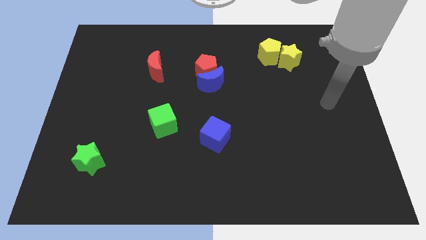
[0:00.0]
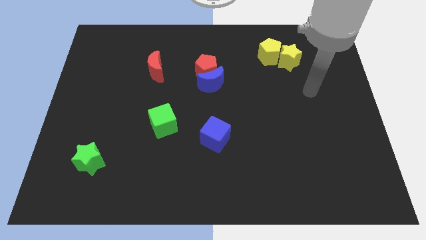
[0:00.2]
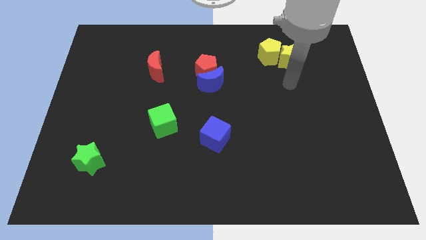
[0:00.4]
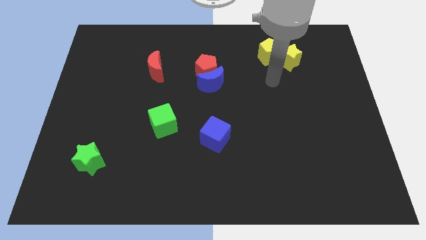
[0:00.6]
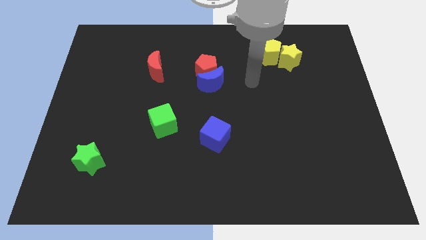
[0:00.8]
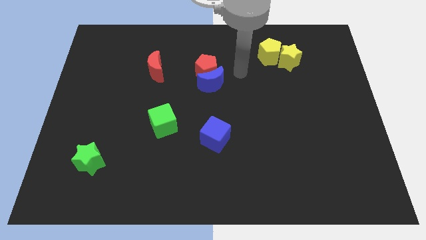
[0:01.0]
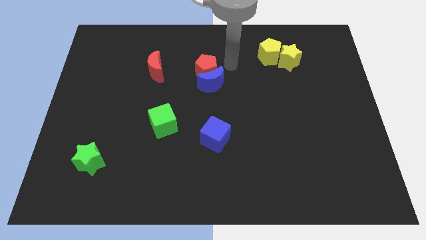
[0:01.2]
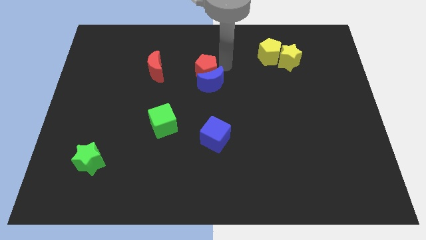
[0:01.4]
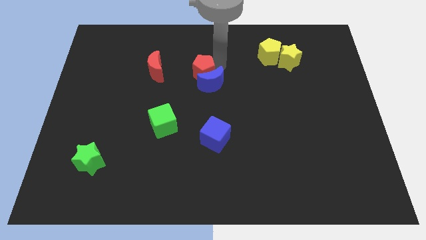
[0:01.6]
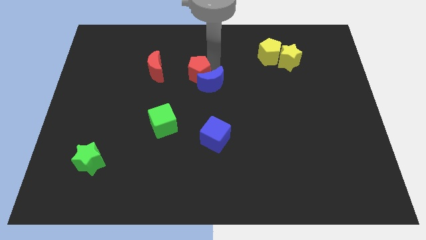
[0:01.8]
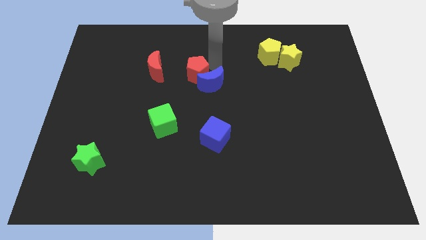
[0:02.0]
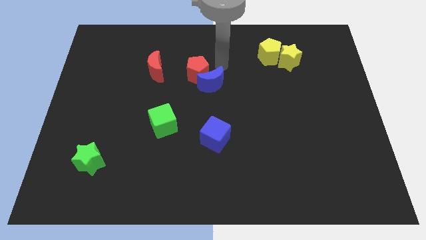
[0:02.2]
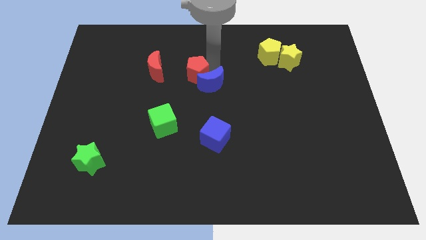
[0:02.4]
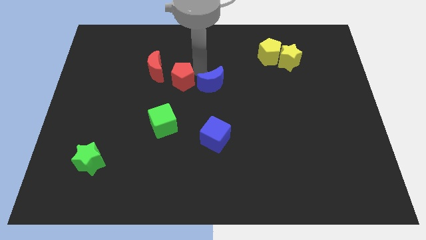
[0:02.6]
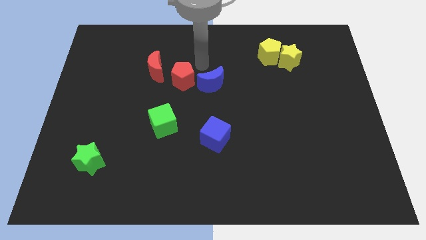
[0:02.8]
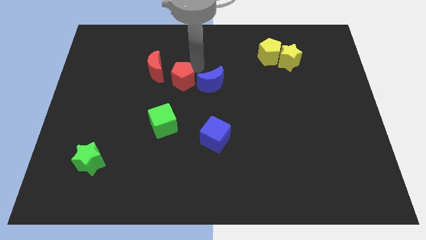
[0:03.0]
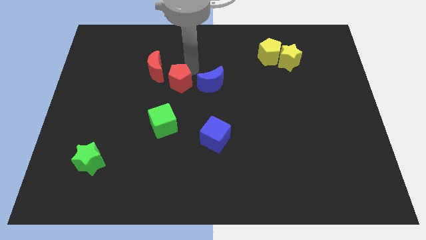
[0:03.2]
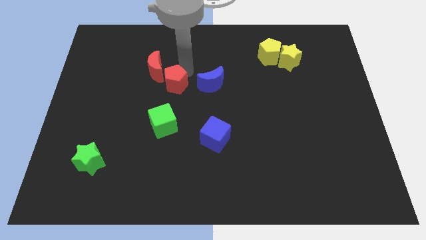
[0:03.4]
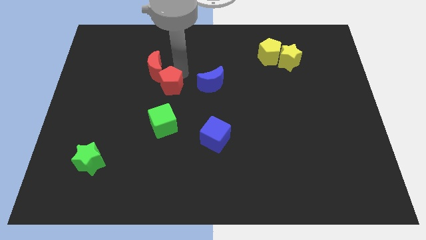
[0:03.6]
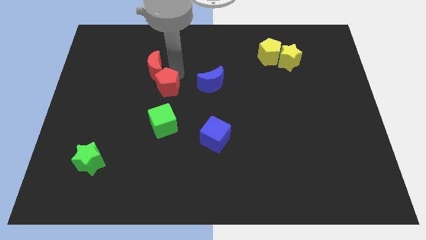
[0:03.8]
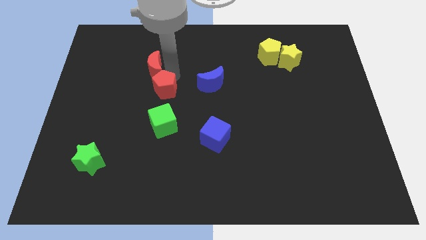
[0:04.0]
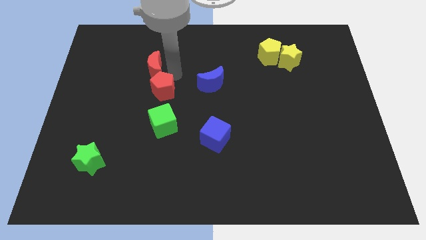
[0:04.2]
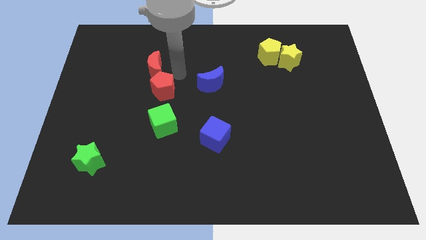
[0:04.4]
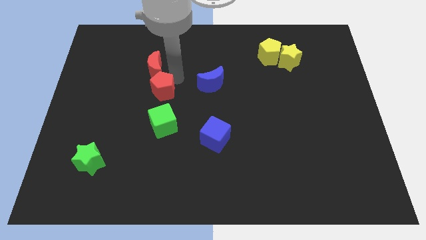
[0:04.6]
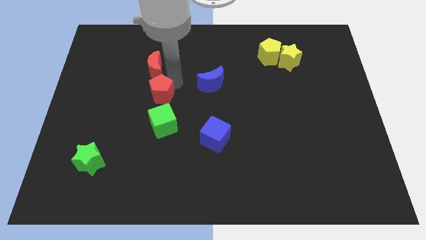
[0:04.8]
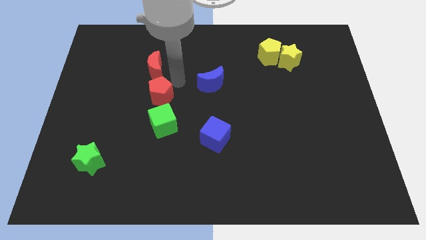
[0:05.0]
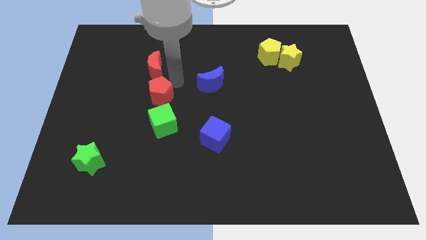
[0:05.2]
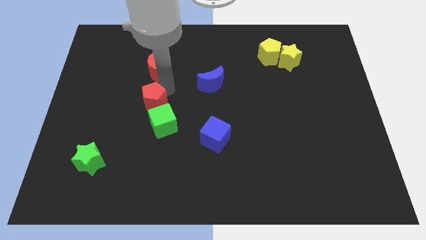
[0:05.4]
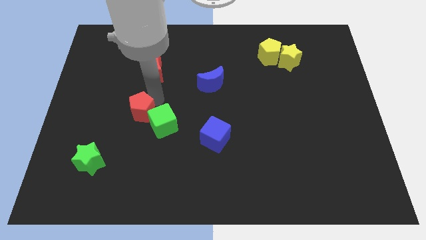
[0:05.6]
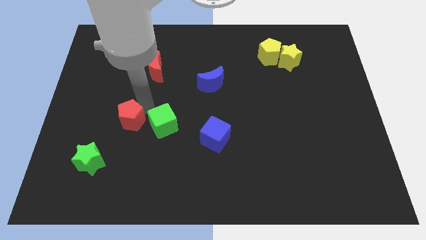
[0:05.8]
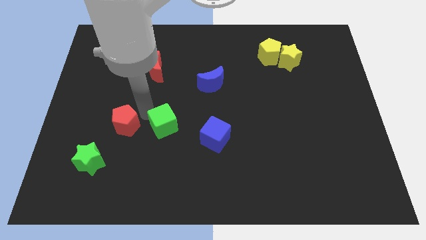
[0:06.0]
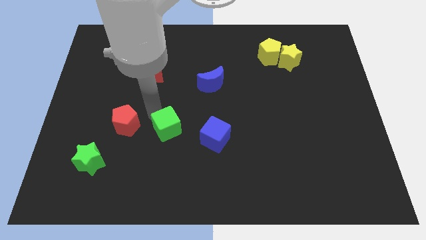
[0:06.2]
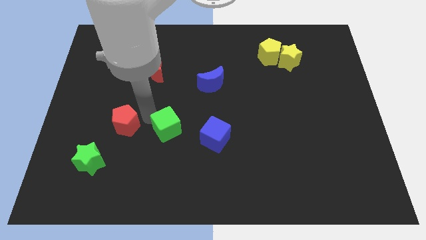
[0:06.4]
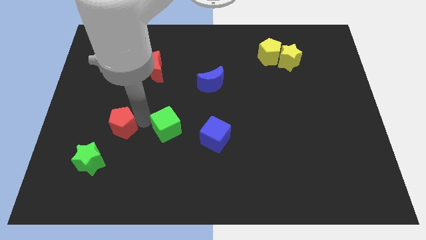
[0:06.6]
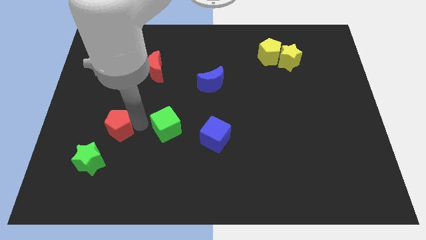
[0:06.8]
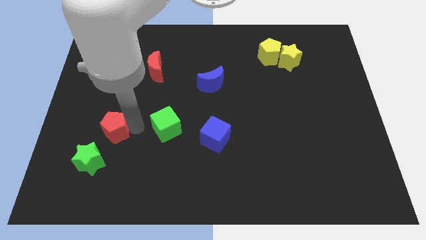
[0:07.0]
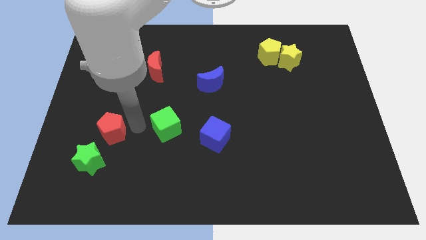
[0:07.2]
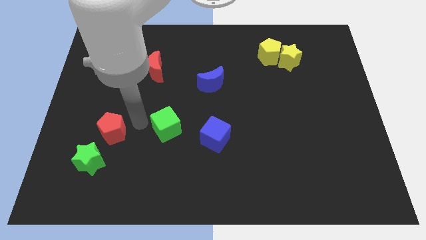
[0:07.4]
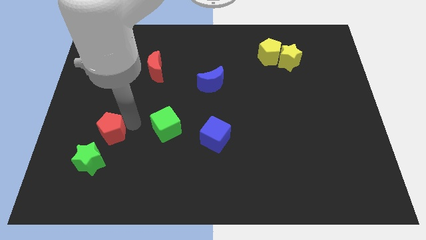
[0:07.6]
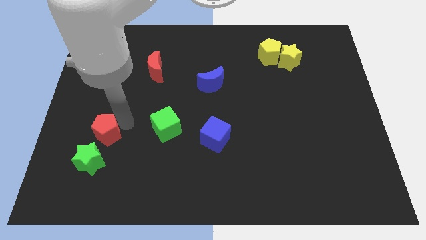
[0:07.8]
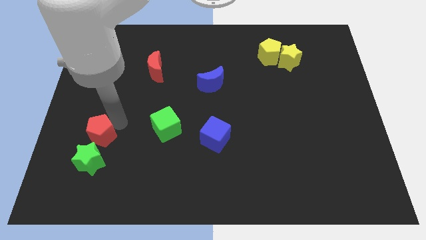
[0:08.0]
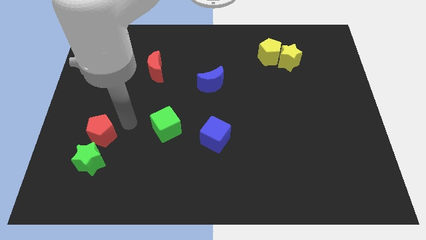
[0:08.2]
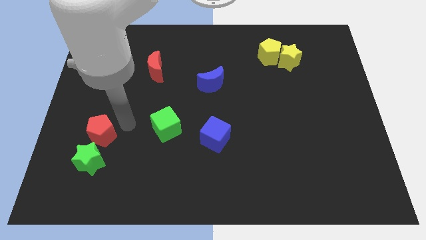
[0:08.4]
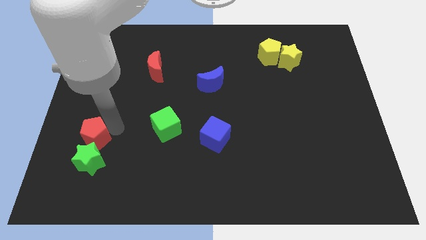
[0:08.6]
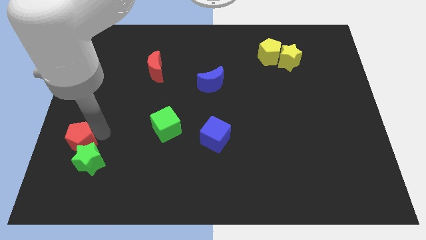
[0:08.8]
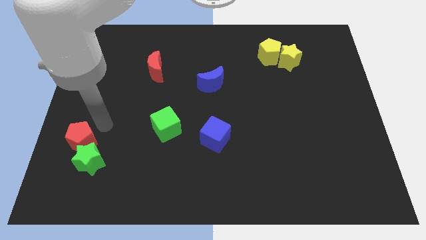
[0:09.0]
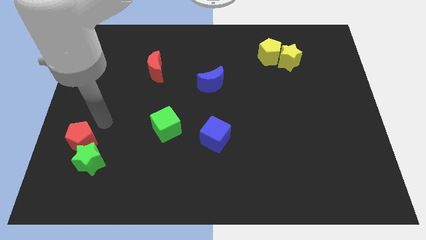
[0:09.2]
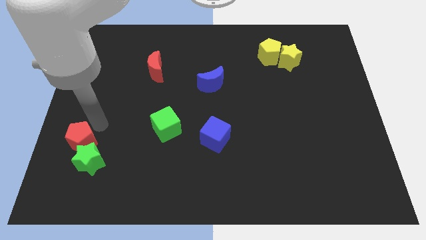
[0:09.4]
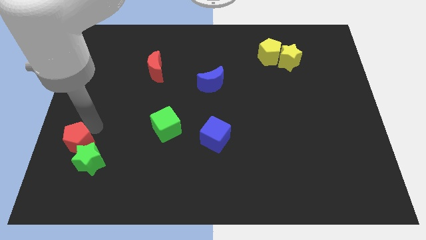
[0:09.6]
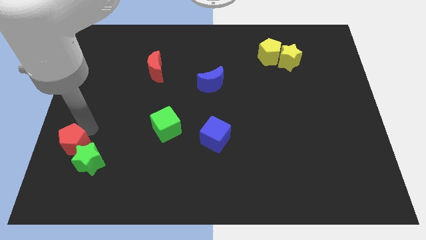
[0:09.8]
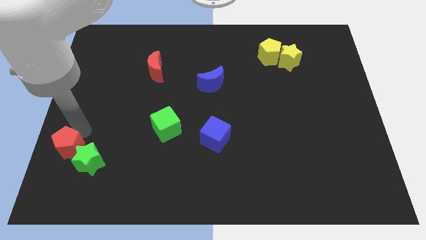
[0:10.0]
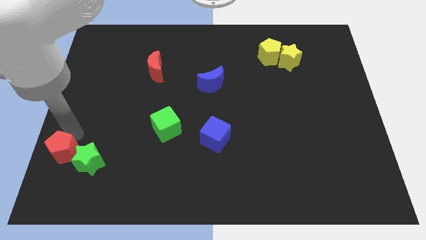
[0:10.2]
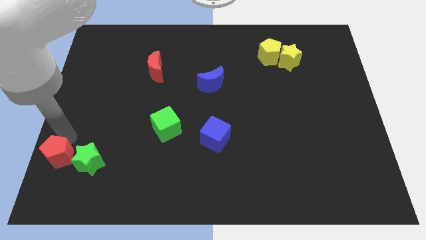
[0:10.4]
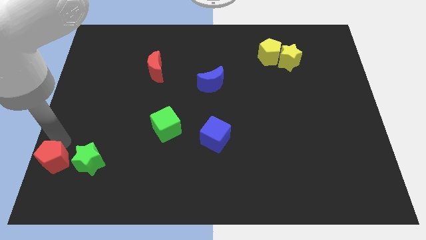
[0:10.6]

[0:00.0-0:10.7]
move the red pentagon to the lower left corner
